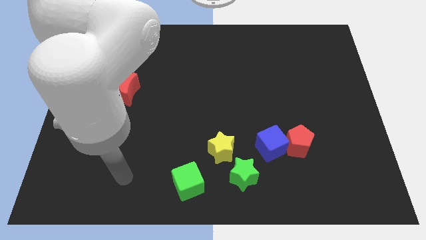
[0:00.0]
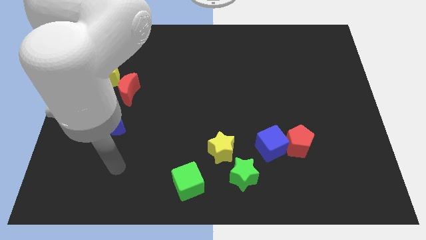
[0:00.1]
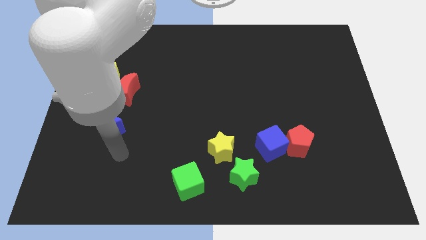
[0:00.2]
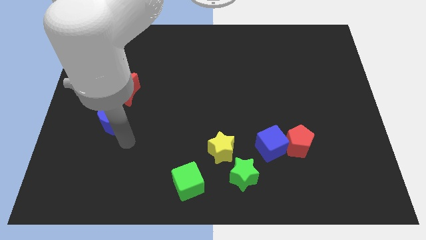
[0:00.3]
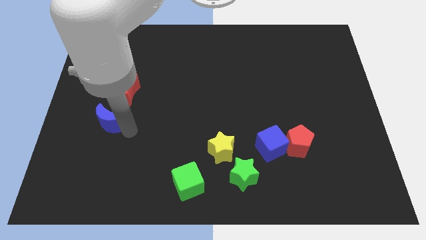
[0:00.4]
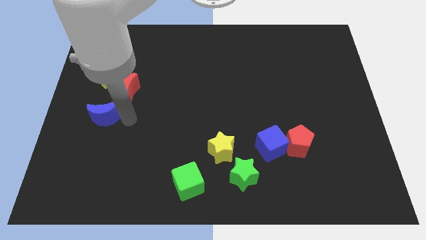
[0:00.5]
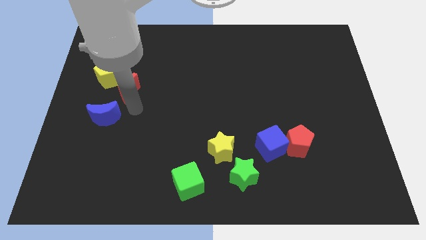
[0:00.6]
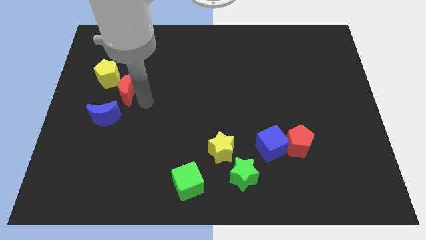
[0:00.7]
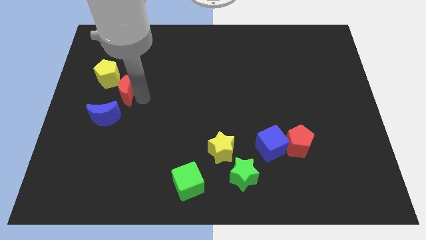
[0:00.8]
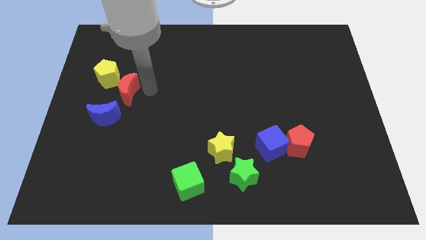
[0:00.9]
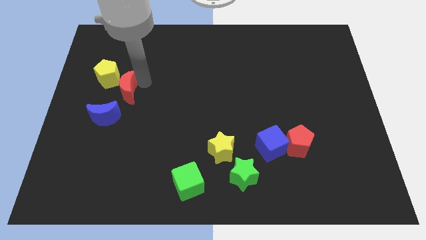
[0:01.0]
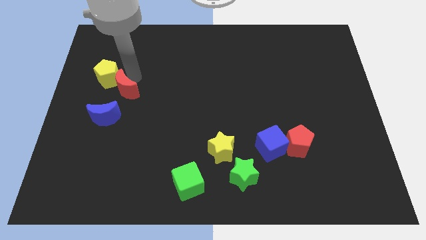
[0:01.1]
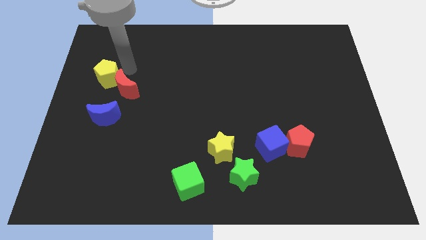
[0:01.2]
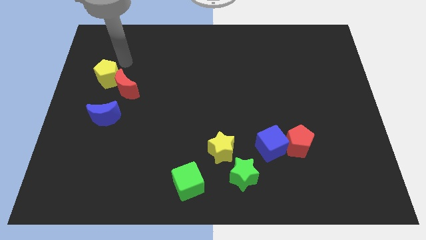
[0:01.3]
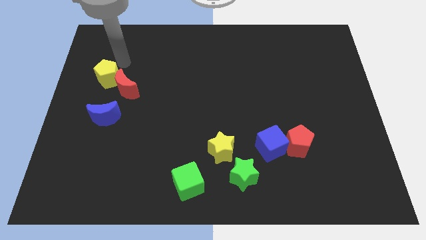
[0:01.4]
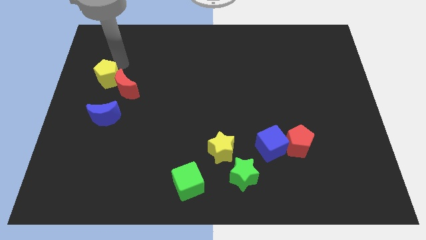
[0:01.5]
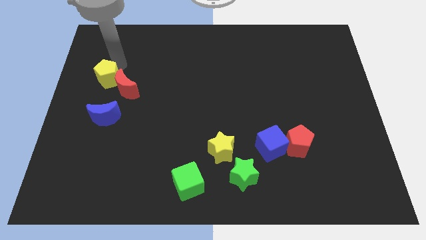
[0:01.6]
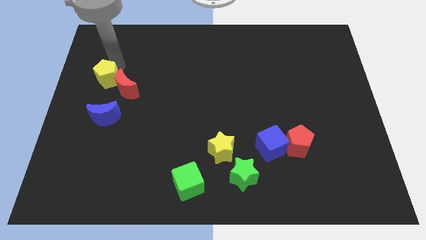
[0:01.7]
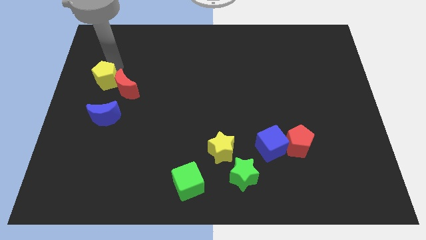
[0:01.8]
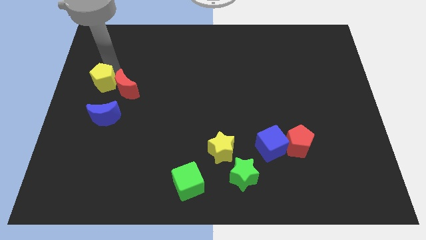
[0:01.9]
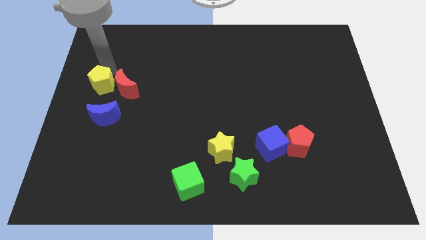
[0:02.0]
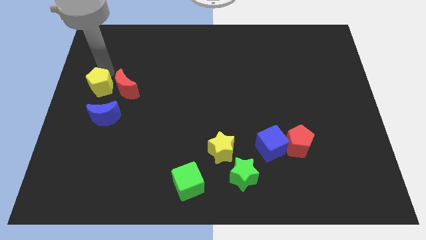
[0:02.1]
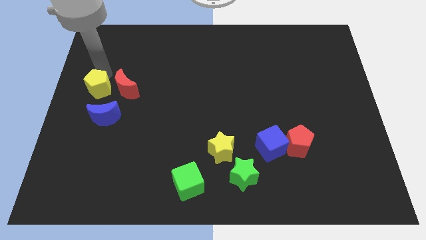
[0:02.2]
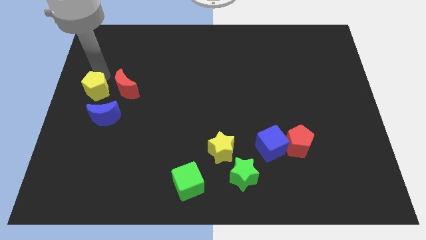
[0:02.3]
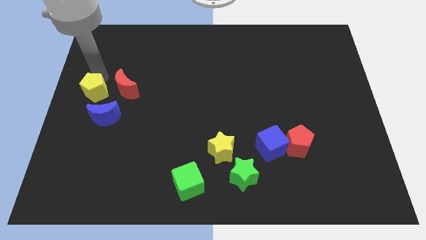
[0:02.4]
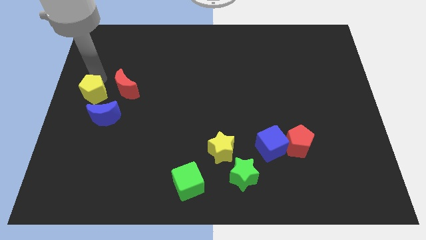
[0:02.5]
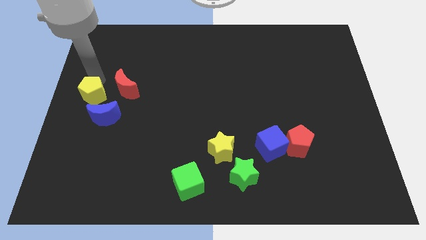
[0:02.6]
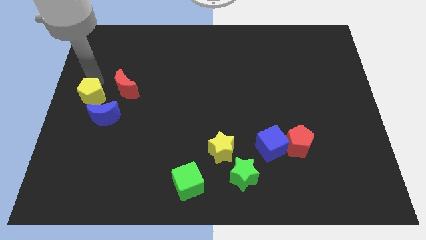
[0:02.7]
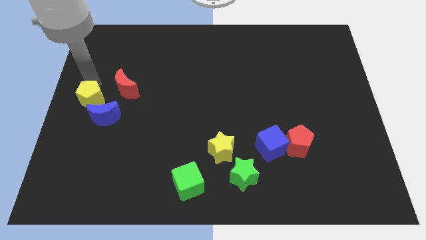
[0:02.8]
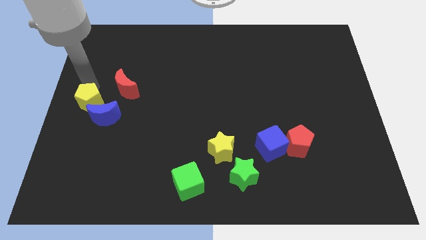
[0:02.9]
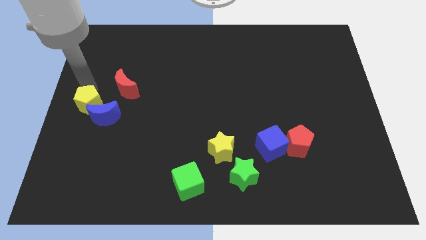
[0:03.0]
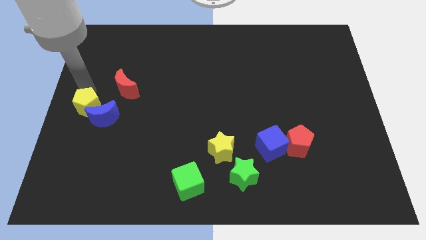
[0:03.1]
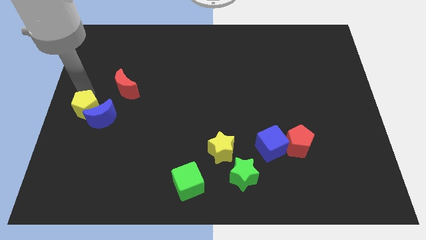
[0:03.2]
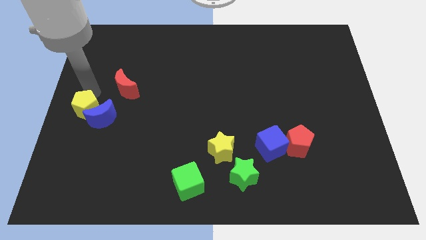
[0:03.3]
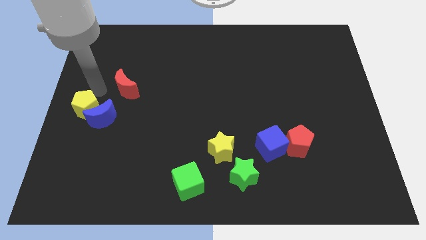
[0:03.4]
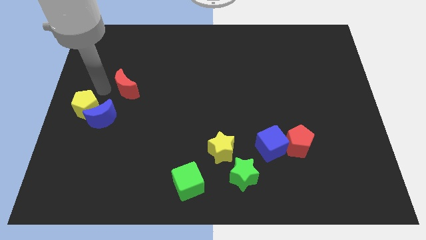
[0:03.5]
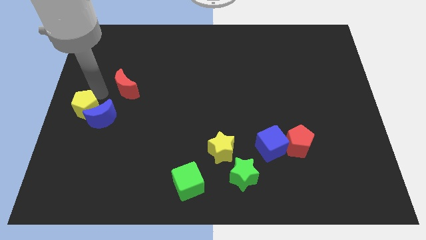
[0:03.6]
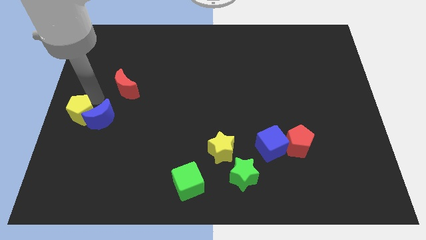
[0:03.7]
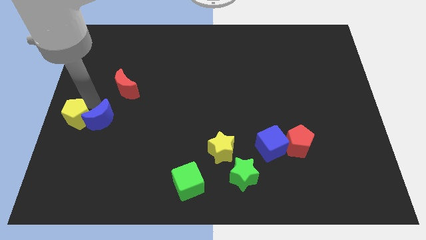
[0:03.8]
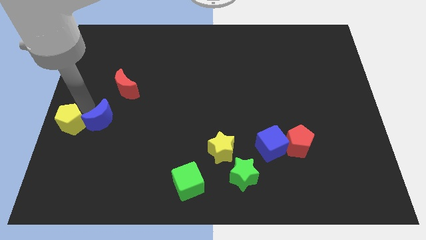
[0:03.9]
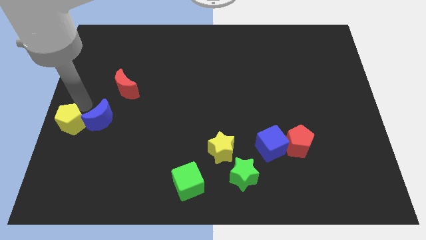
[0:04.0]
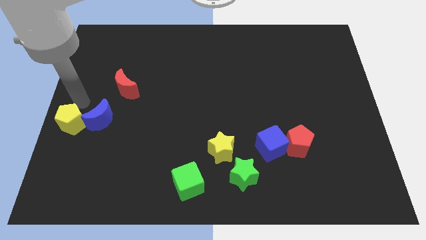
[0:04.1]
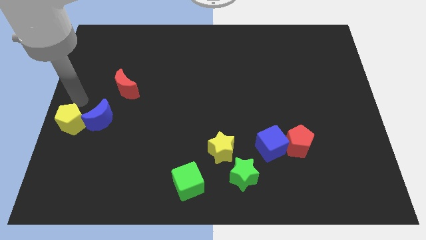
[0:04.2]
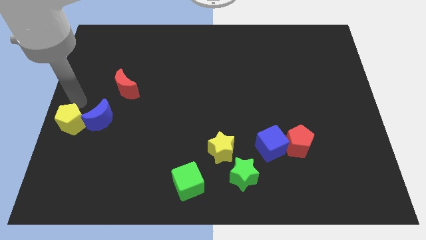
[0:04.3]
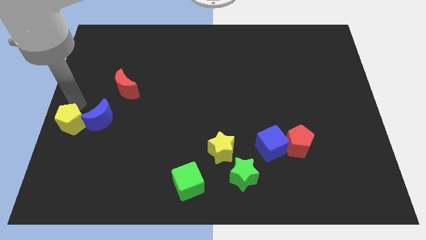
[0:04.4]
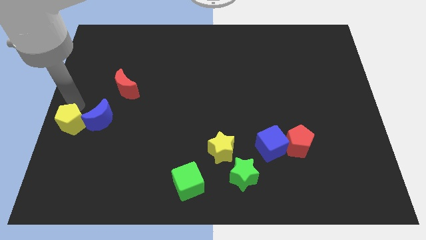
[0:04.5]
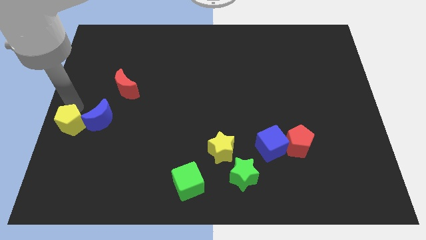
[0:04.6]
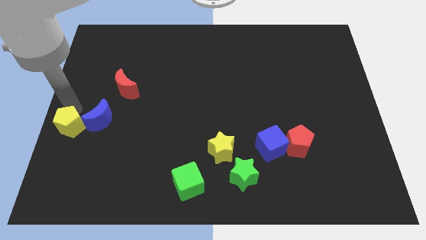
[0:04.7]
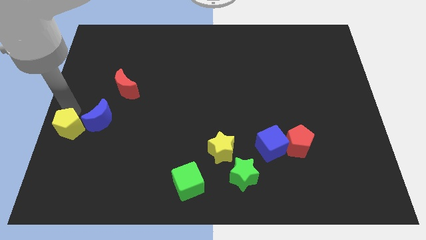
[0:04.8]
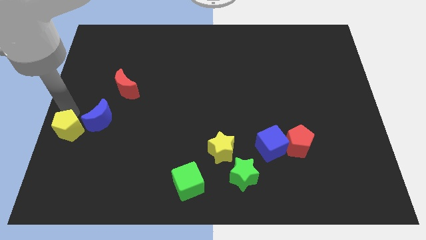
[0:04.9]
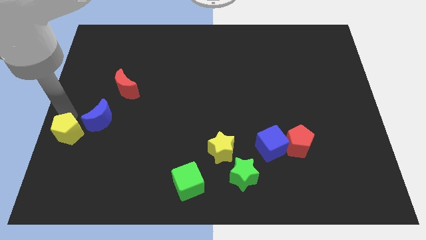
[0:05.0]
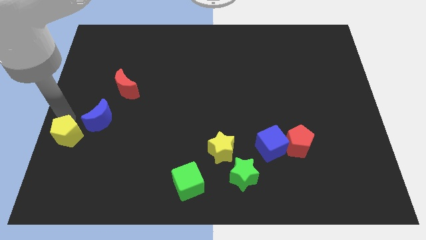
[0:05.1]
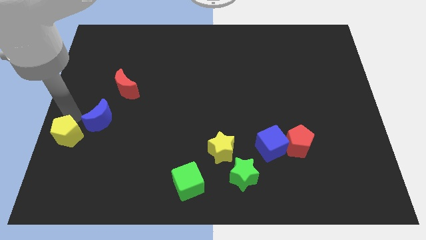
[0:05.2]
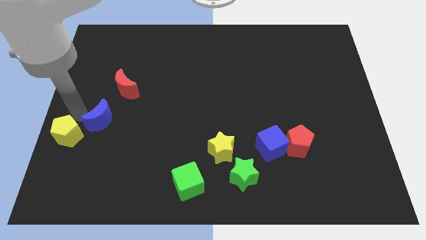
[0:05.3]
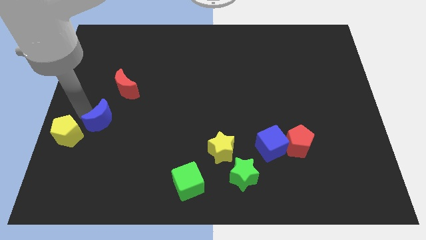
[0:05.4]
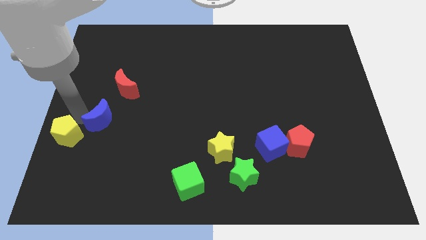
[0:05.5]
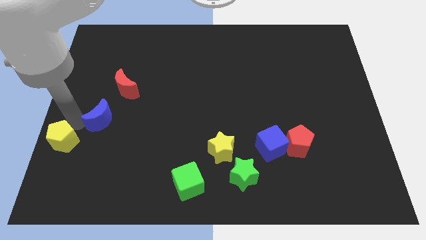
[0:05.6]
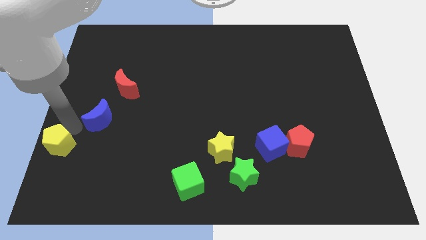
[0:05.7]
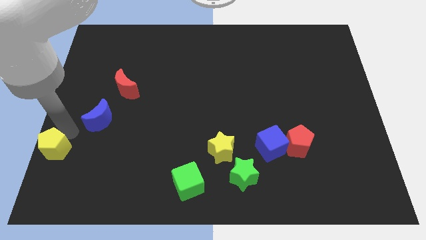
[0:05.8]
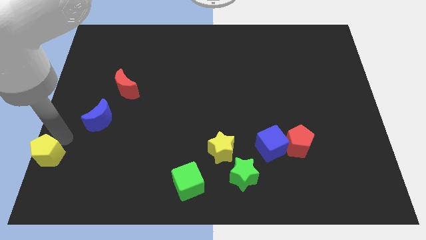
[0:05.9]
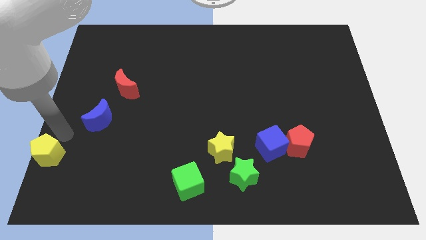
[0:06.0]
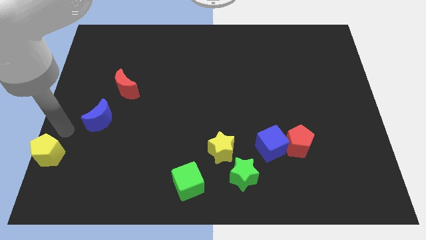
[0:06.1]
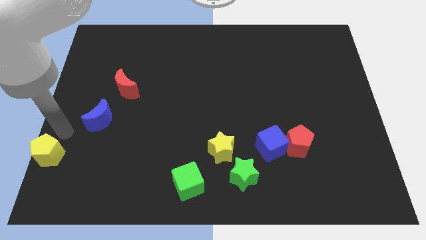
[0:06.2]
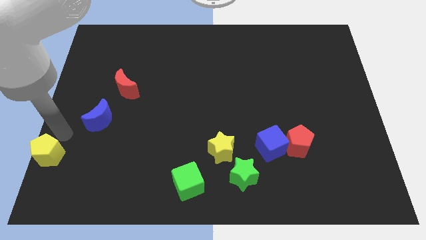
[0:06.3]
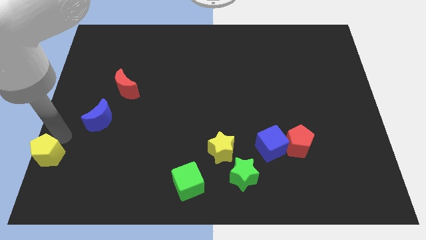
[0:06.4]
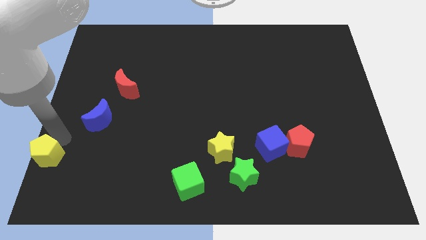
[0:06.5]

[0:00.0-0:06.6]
move the yellow pentagon to the bottom left corner

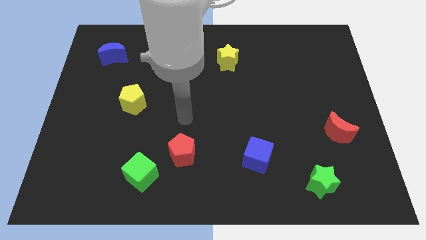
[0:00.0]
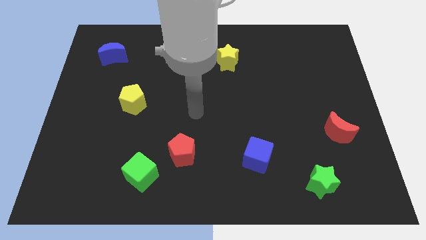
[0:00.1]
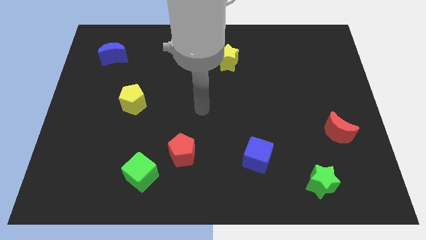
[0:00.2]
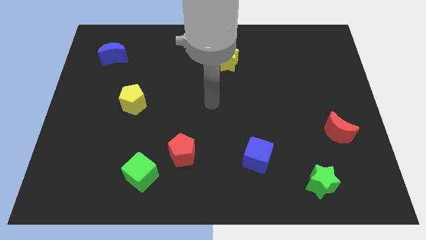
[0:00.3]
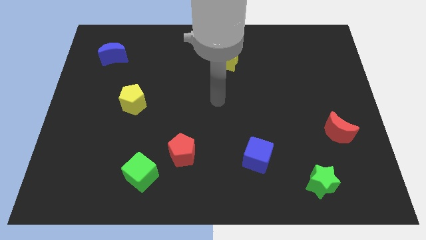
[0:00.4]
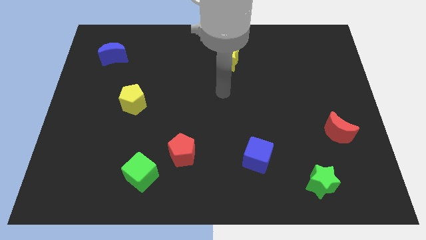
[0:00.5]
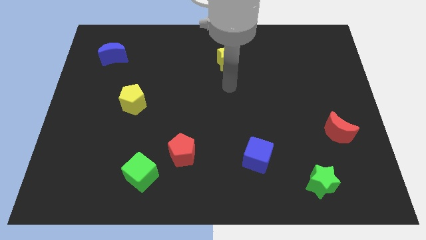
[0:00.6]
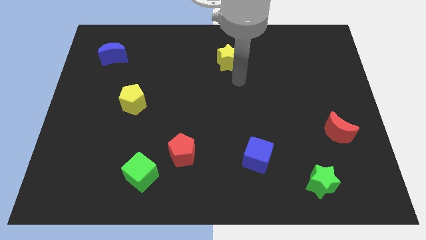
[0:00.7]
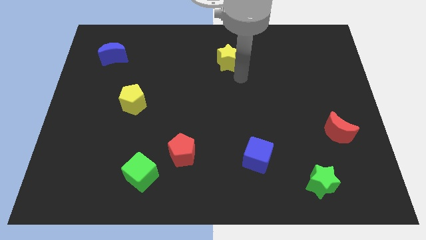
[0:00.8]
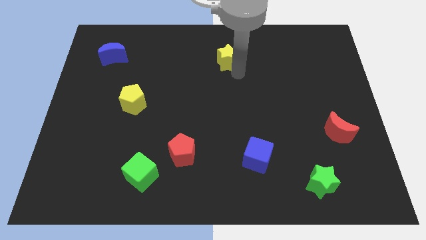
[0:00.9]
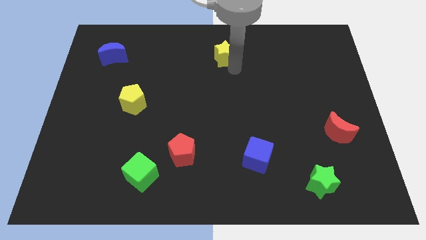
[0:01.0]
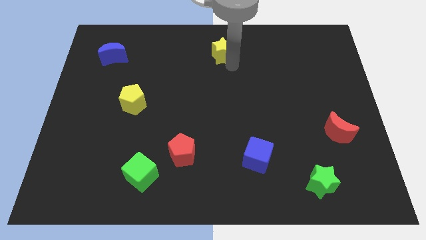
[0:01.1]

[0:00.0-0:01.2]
slide the yellow star to the top
